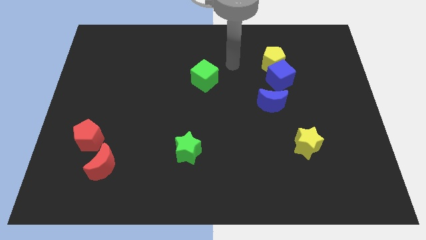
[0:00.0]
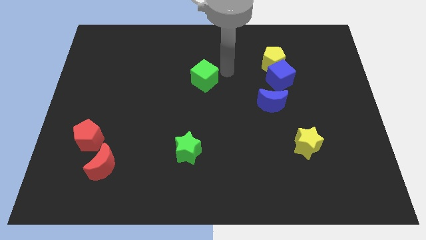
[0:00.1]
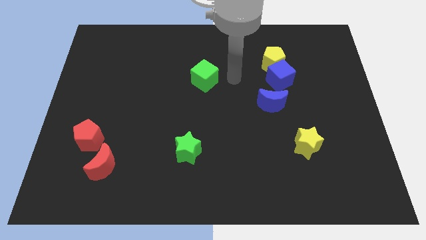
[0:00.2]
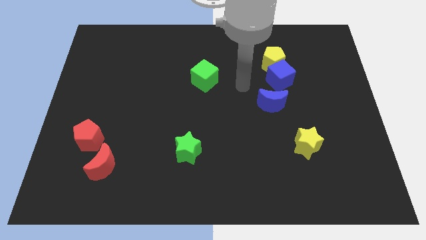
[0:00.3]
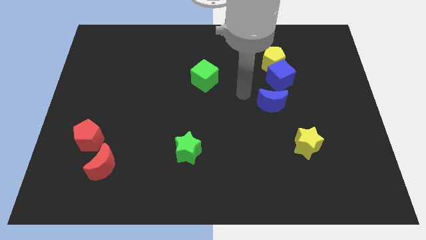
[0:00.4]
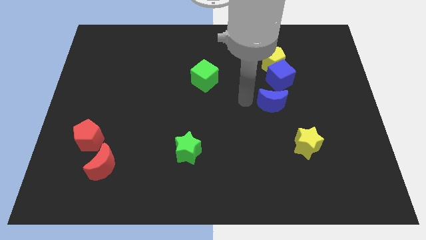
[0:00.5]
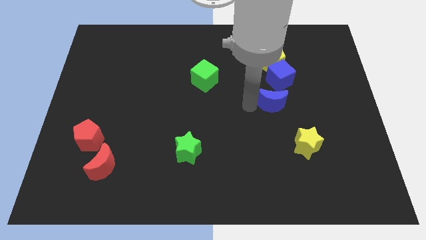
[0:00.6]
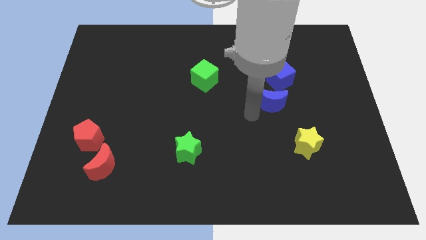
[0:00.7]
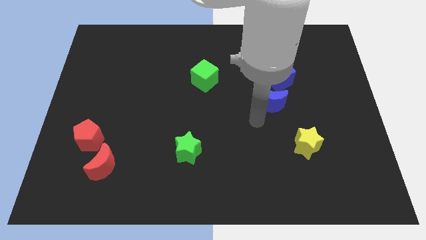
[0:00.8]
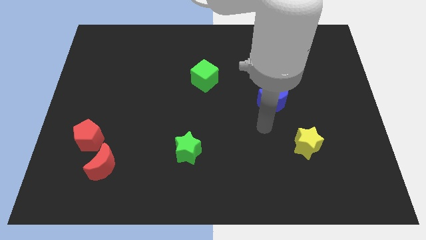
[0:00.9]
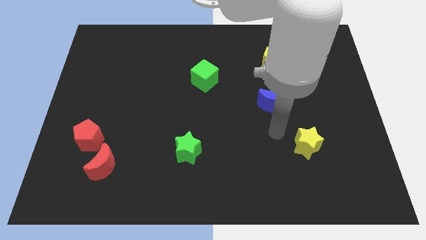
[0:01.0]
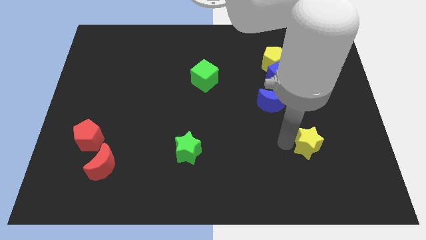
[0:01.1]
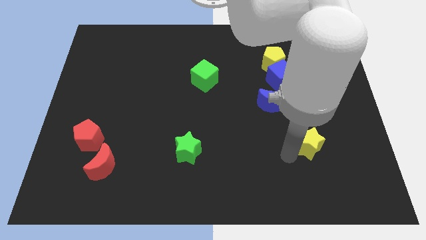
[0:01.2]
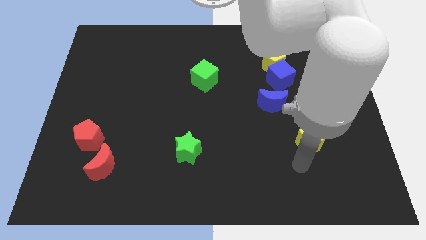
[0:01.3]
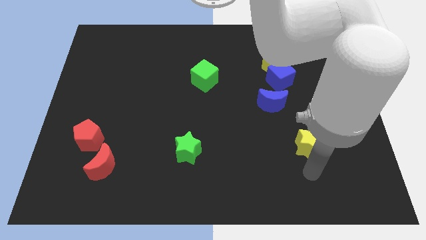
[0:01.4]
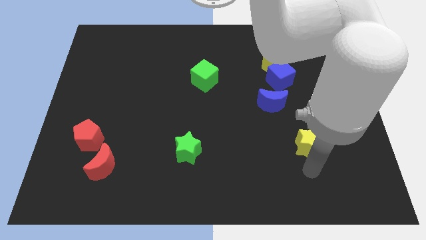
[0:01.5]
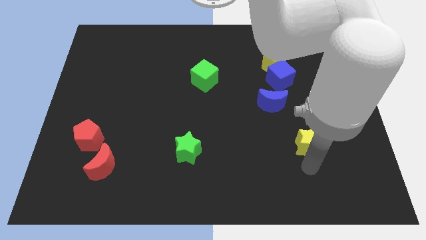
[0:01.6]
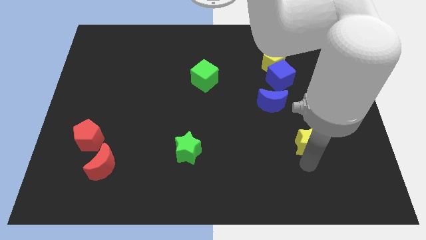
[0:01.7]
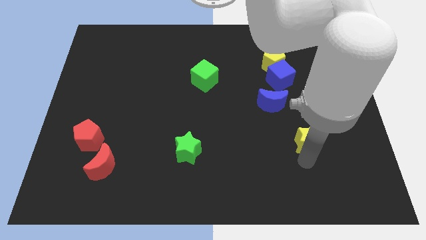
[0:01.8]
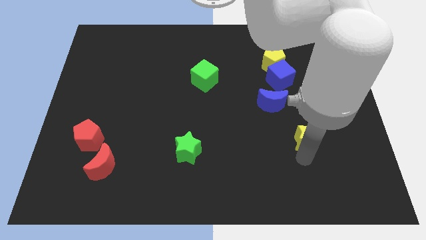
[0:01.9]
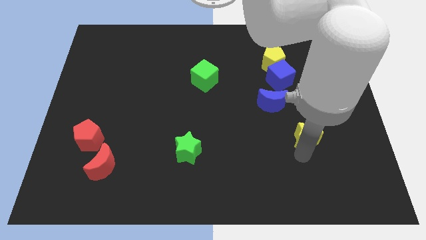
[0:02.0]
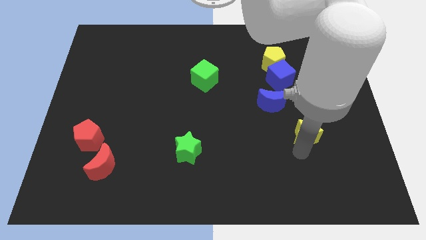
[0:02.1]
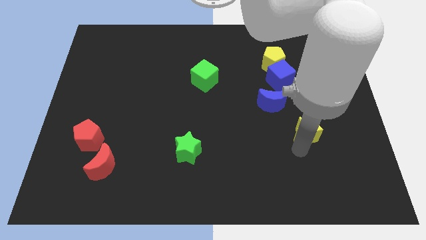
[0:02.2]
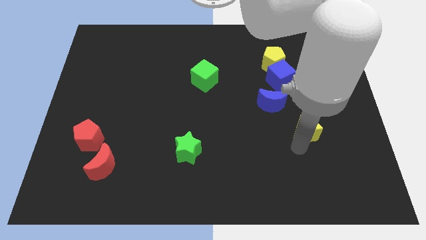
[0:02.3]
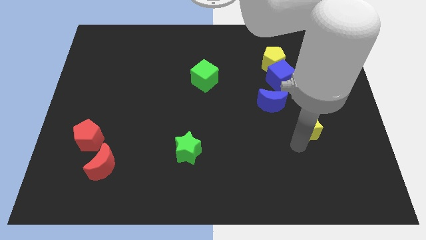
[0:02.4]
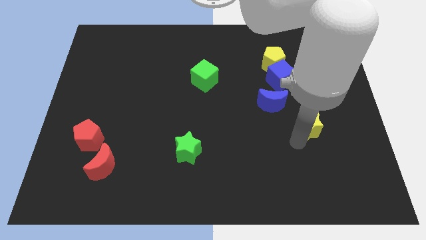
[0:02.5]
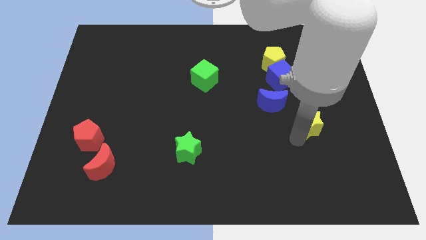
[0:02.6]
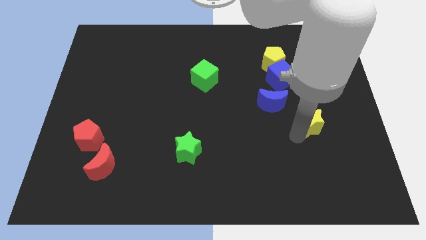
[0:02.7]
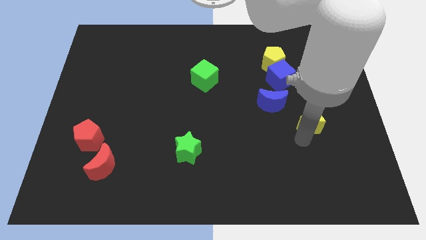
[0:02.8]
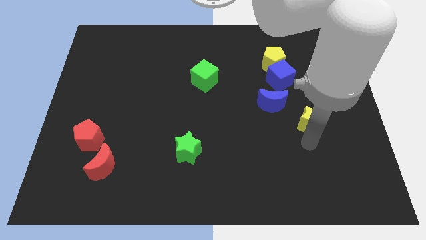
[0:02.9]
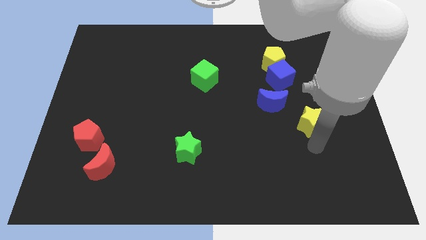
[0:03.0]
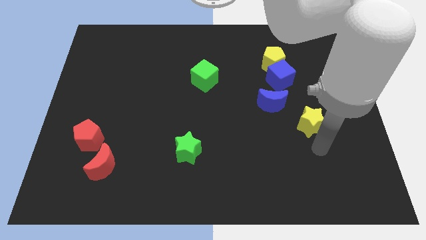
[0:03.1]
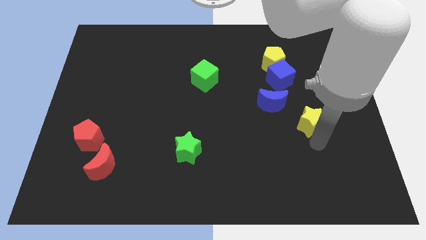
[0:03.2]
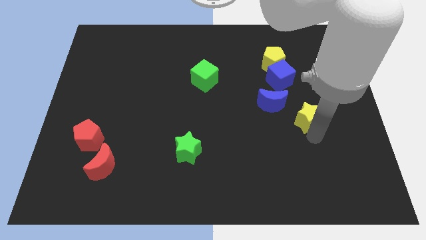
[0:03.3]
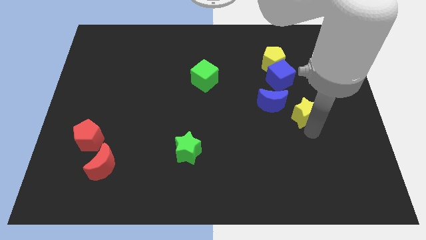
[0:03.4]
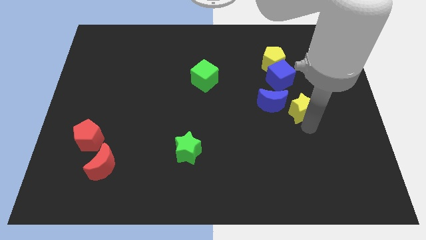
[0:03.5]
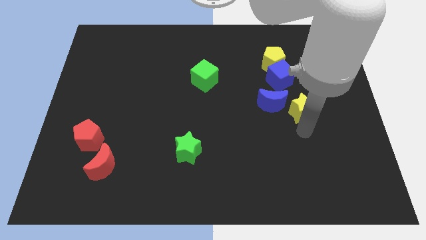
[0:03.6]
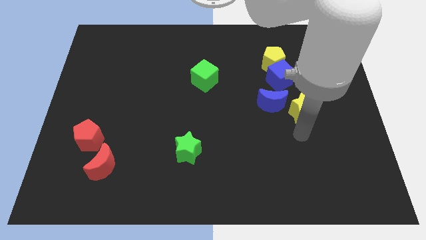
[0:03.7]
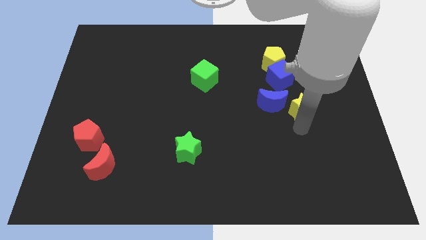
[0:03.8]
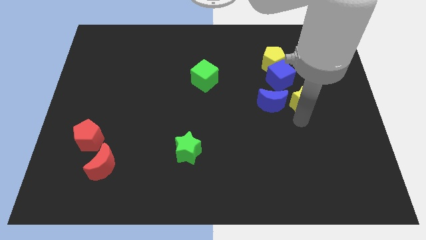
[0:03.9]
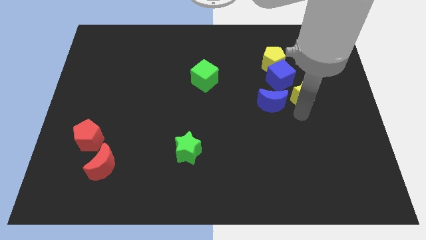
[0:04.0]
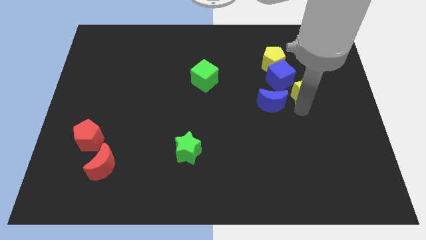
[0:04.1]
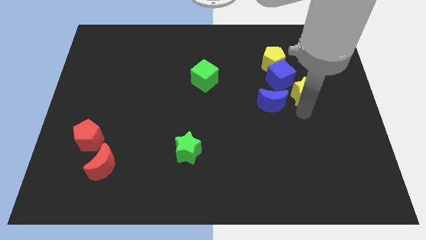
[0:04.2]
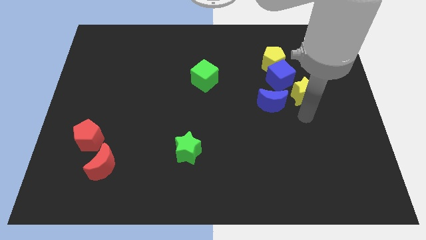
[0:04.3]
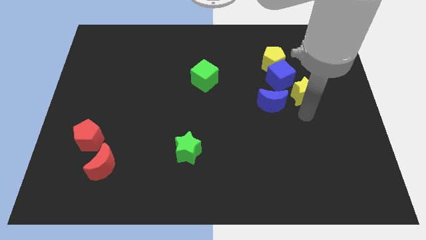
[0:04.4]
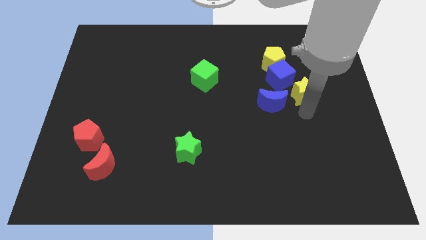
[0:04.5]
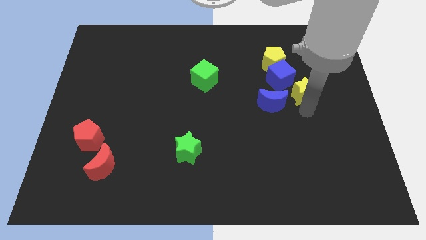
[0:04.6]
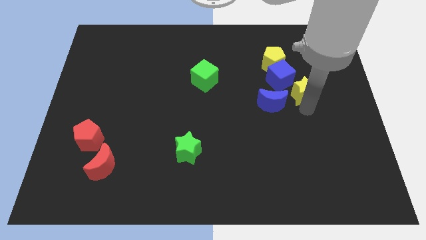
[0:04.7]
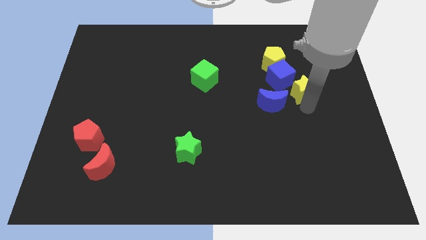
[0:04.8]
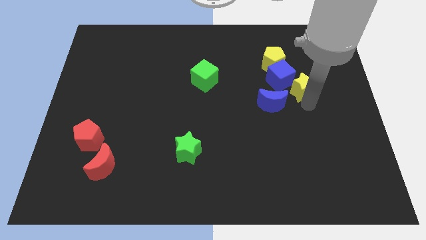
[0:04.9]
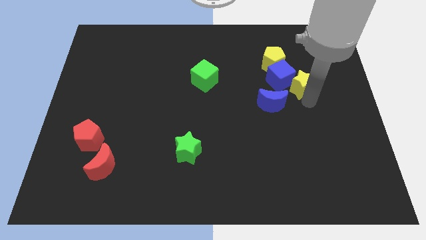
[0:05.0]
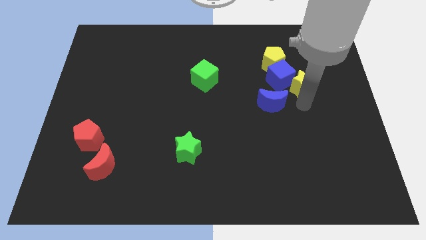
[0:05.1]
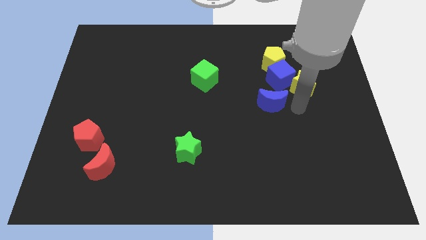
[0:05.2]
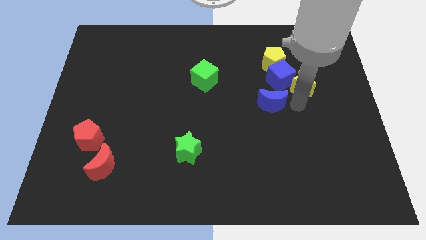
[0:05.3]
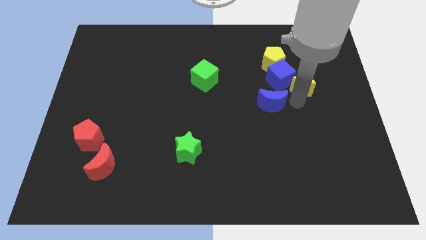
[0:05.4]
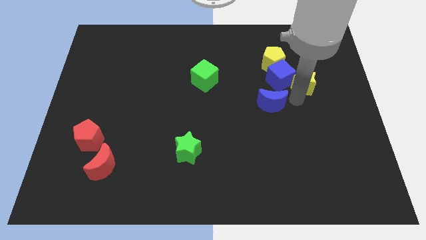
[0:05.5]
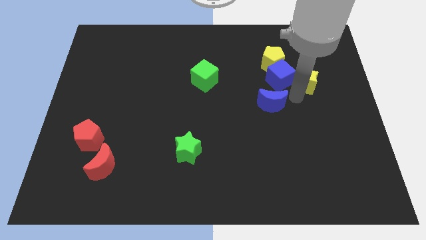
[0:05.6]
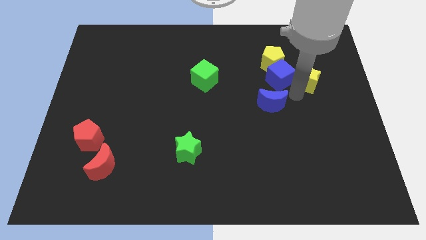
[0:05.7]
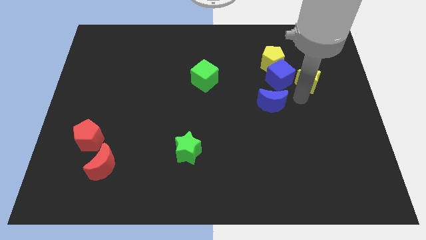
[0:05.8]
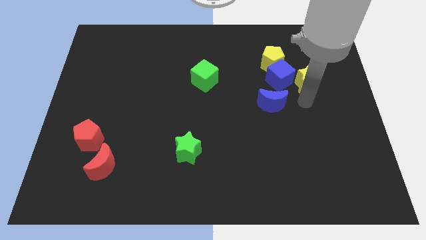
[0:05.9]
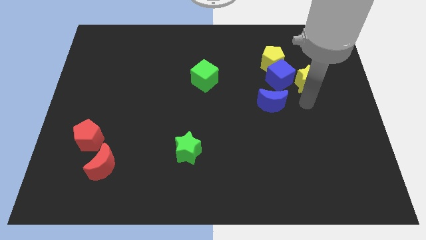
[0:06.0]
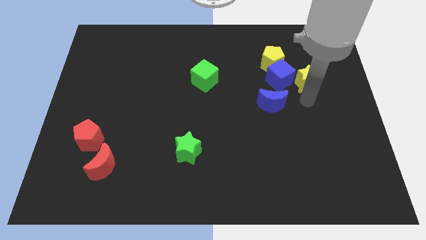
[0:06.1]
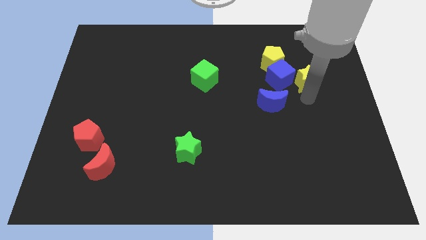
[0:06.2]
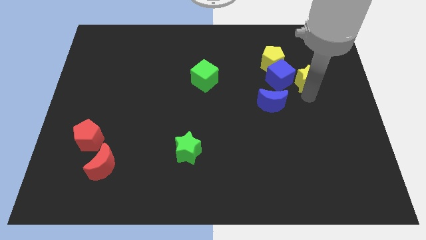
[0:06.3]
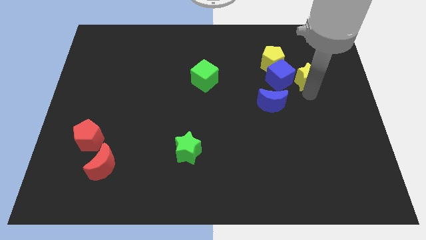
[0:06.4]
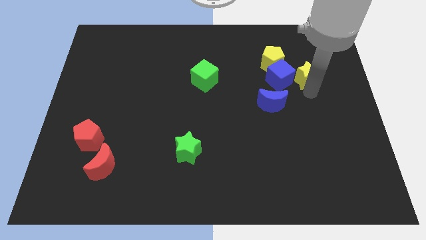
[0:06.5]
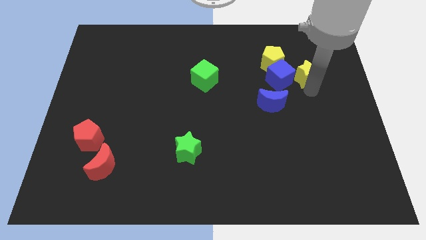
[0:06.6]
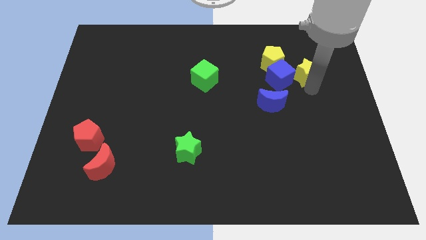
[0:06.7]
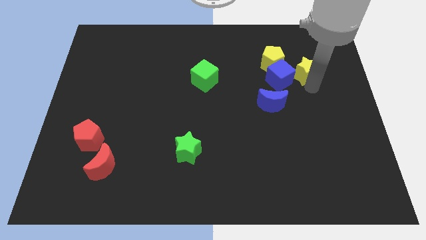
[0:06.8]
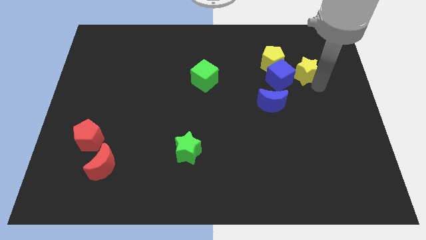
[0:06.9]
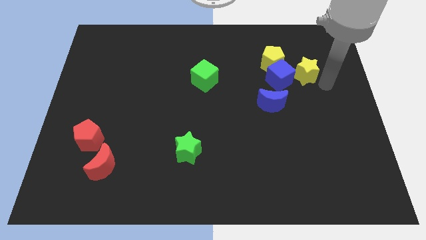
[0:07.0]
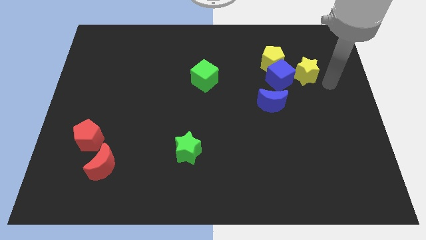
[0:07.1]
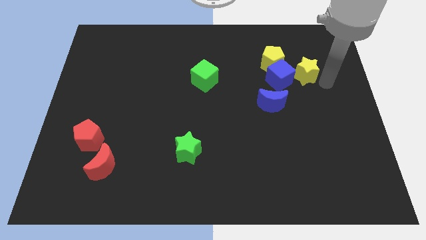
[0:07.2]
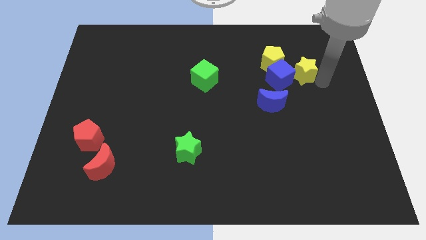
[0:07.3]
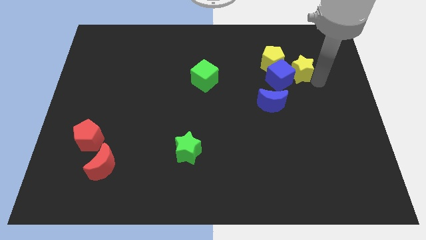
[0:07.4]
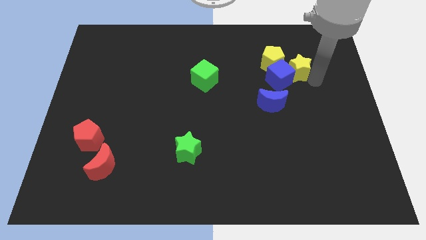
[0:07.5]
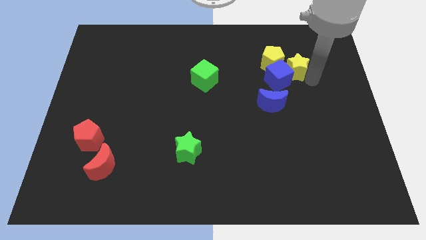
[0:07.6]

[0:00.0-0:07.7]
slide the yellow star close to the yellow pentagon

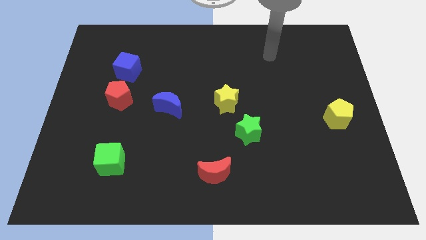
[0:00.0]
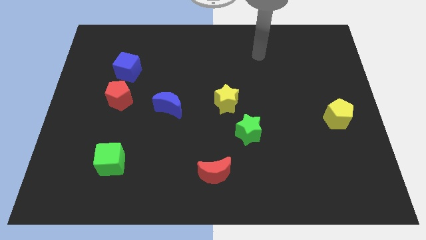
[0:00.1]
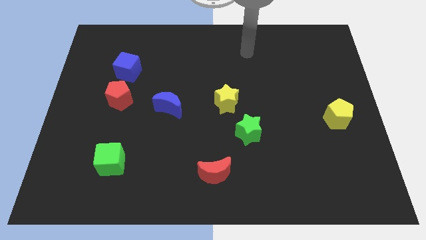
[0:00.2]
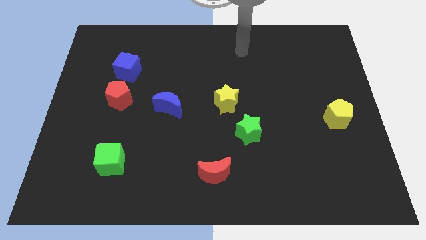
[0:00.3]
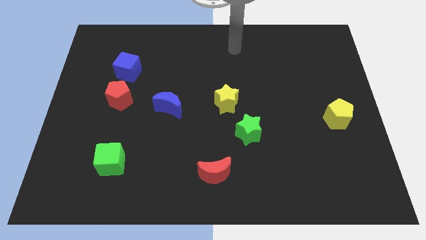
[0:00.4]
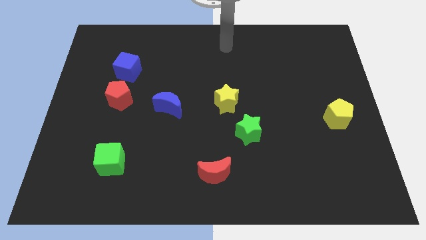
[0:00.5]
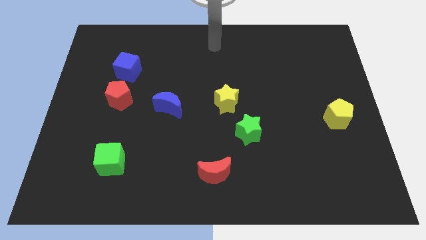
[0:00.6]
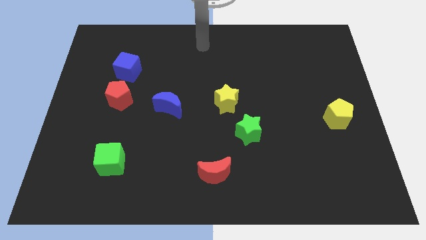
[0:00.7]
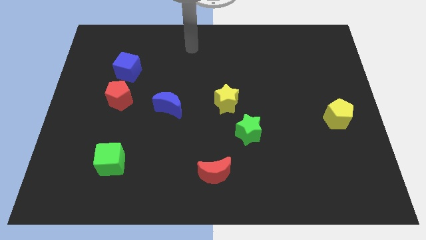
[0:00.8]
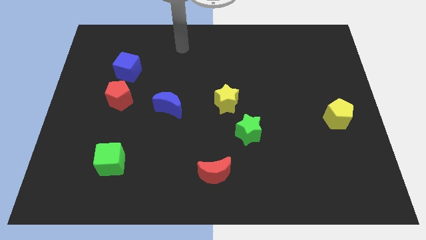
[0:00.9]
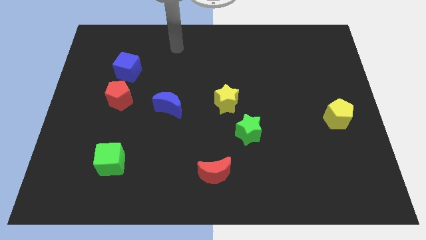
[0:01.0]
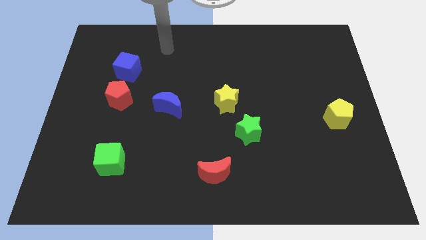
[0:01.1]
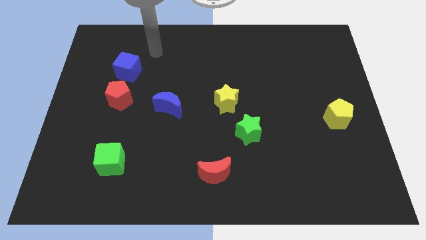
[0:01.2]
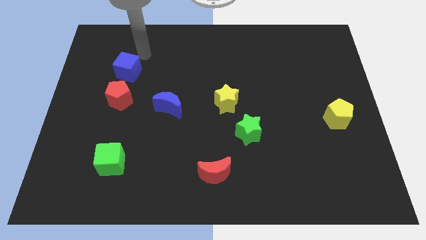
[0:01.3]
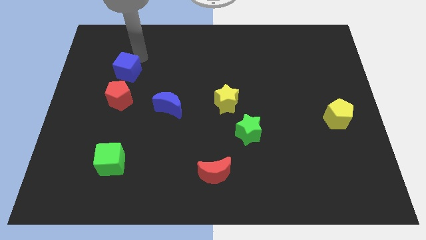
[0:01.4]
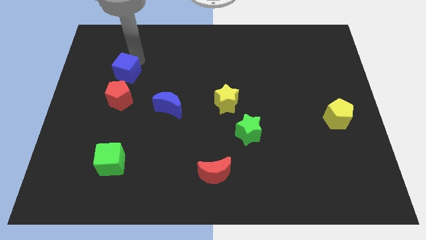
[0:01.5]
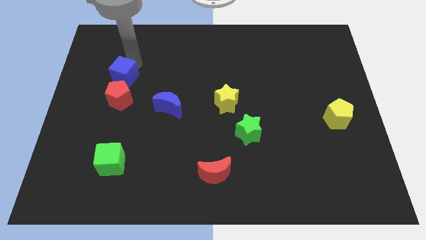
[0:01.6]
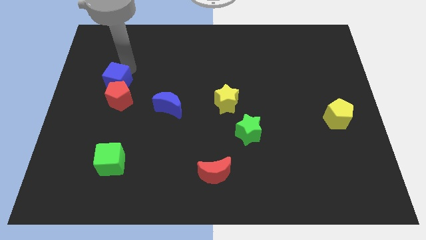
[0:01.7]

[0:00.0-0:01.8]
put the blue cube to the red pentagon
